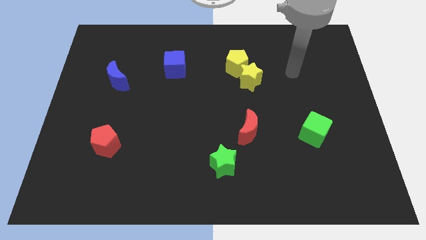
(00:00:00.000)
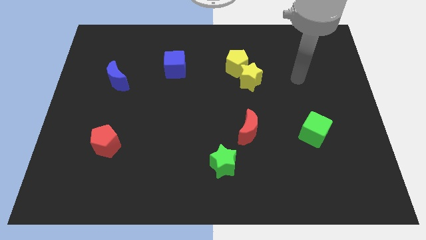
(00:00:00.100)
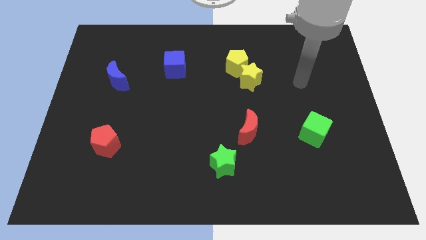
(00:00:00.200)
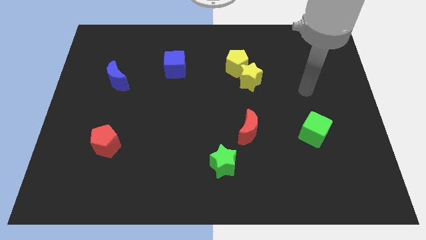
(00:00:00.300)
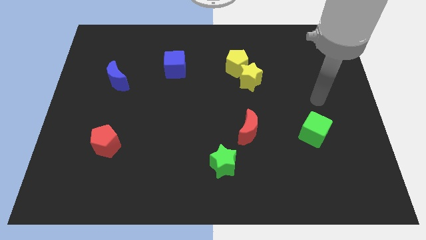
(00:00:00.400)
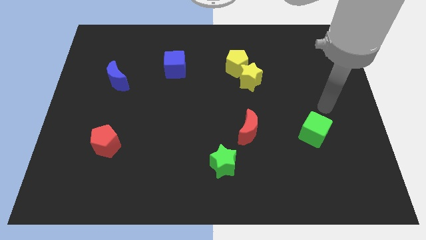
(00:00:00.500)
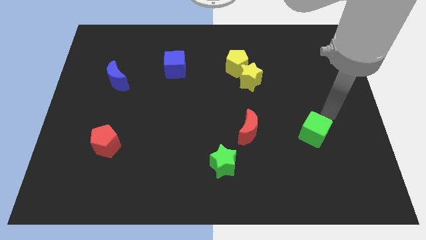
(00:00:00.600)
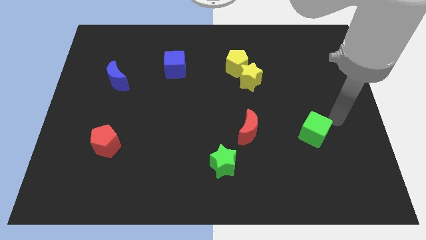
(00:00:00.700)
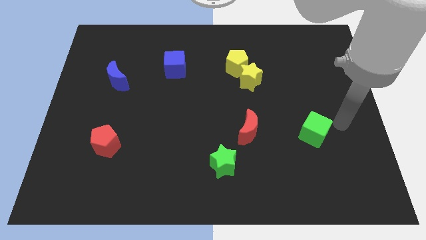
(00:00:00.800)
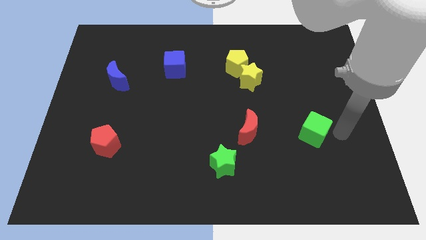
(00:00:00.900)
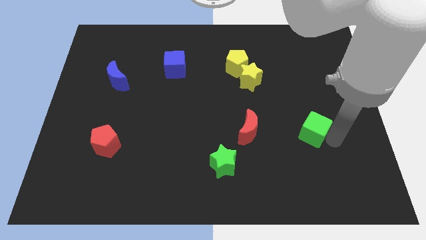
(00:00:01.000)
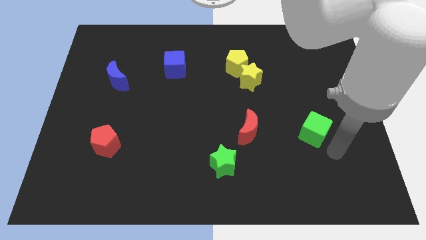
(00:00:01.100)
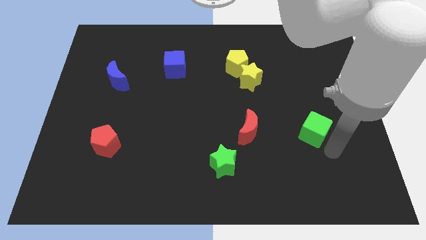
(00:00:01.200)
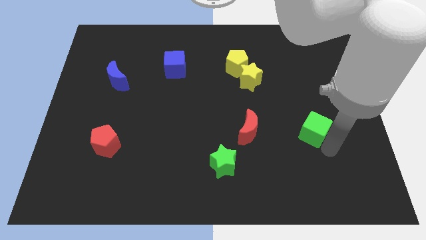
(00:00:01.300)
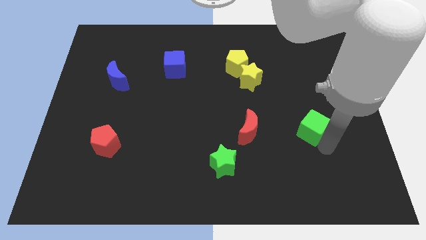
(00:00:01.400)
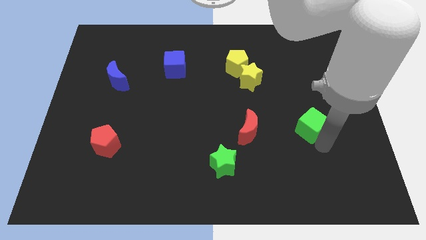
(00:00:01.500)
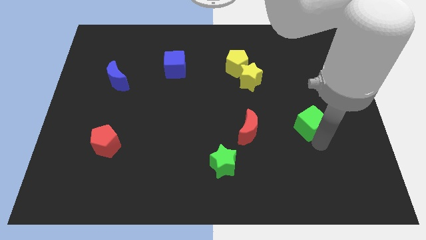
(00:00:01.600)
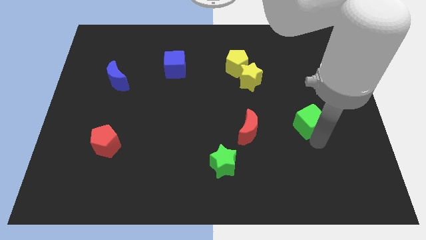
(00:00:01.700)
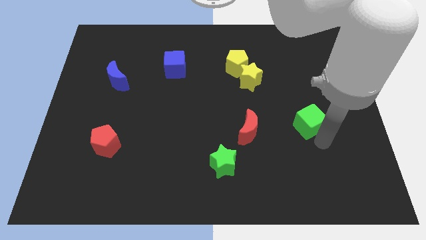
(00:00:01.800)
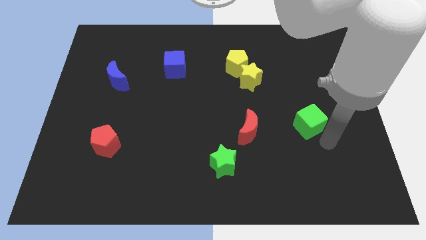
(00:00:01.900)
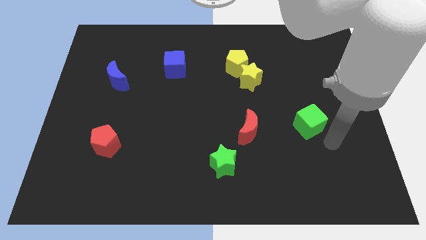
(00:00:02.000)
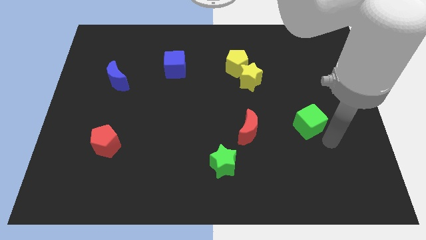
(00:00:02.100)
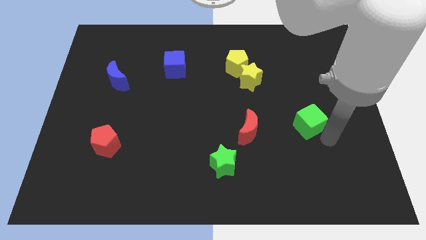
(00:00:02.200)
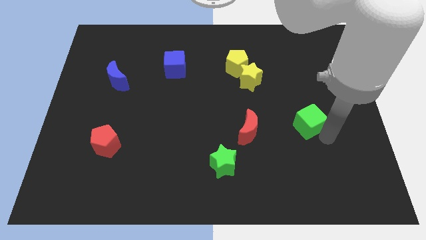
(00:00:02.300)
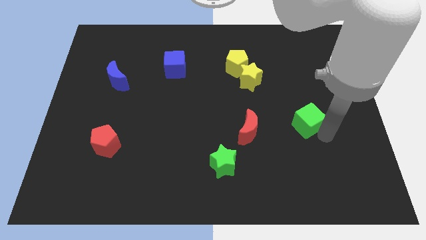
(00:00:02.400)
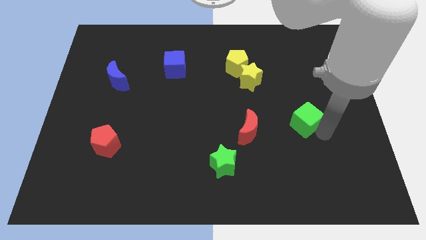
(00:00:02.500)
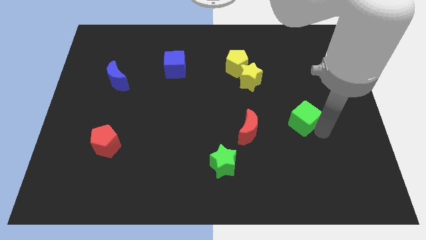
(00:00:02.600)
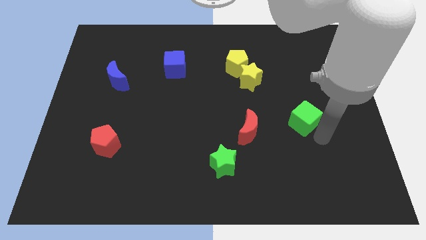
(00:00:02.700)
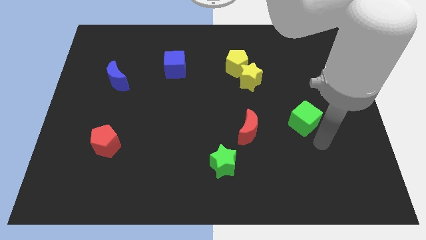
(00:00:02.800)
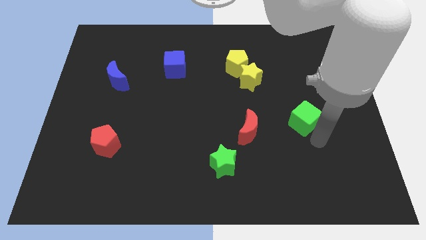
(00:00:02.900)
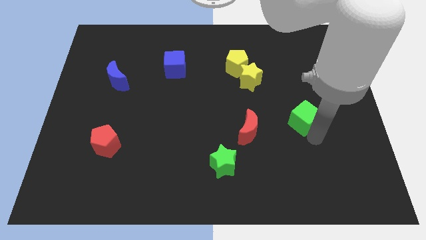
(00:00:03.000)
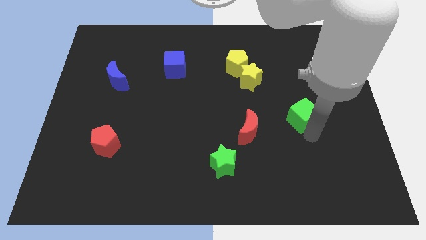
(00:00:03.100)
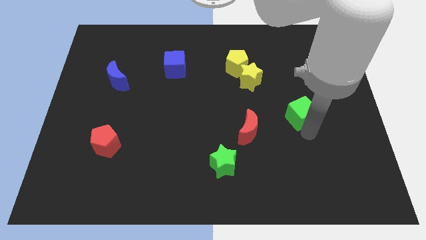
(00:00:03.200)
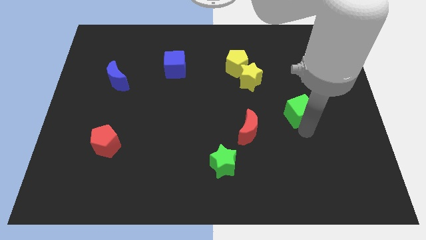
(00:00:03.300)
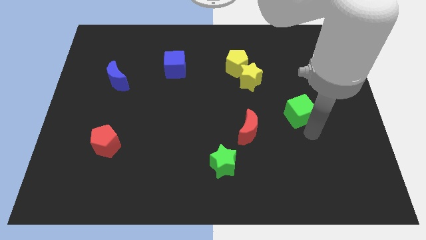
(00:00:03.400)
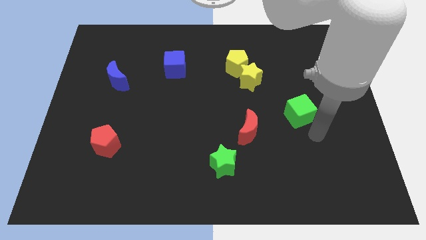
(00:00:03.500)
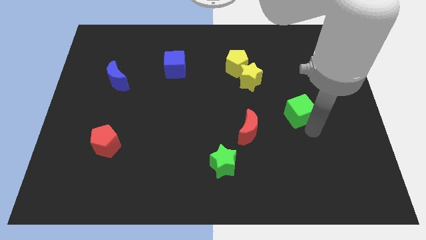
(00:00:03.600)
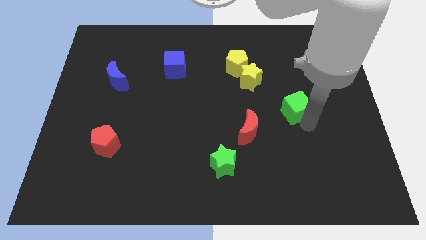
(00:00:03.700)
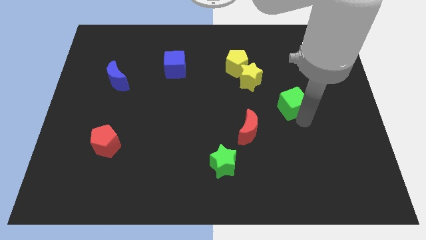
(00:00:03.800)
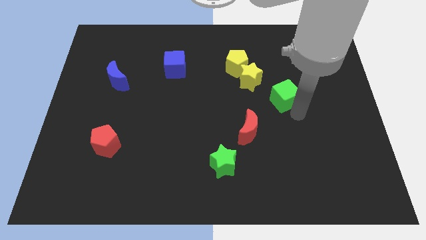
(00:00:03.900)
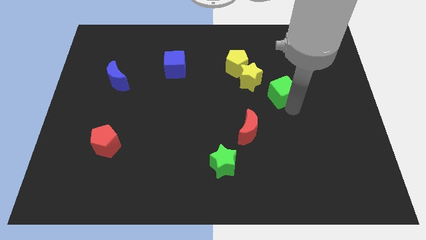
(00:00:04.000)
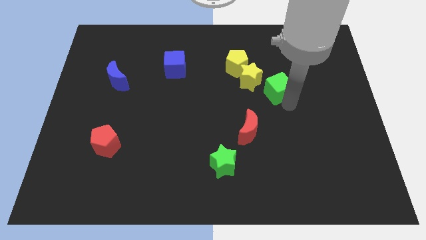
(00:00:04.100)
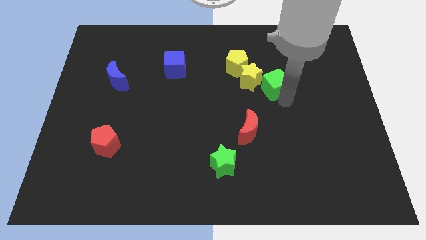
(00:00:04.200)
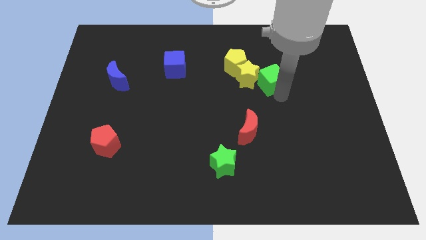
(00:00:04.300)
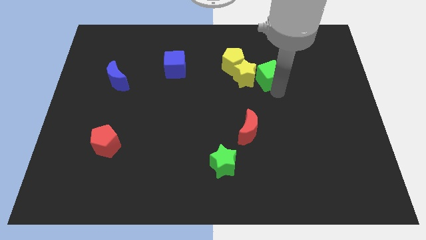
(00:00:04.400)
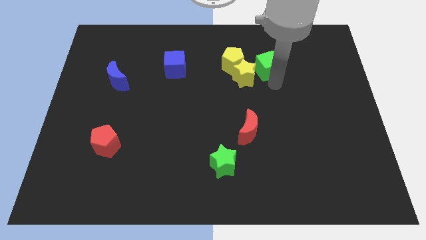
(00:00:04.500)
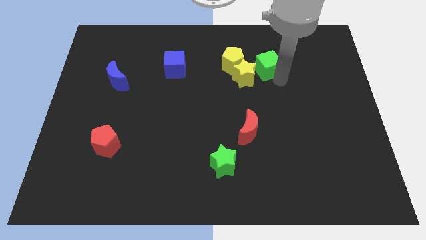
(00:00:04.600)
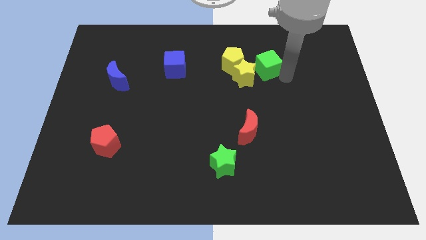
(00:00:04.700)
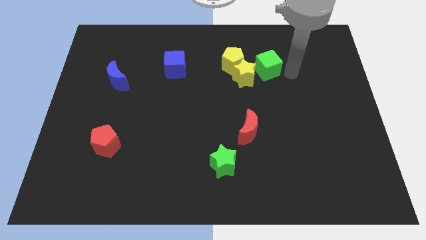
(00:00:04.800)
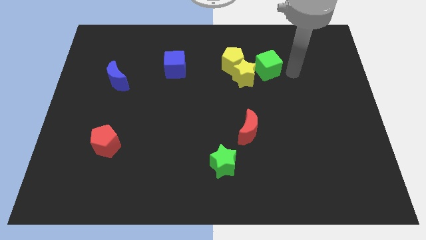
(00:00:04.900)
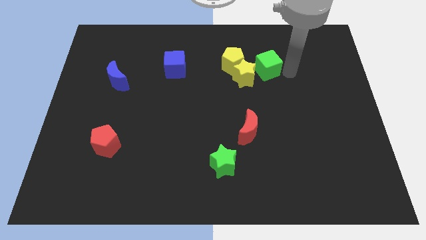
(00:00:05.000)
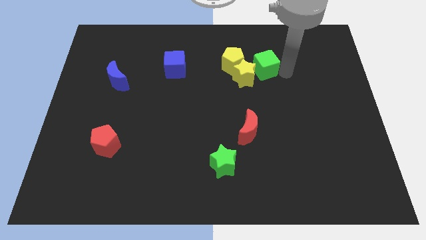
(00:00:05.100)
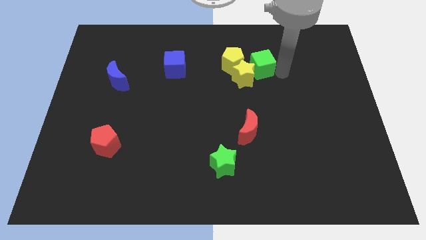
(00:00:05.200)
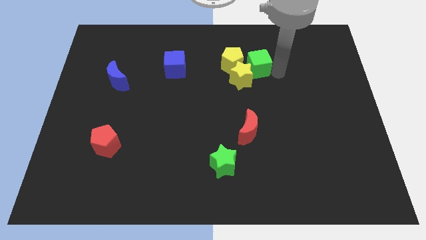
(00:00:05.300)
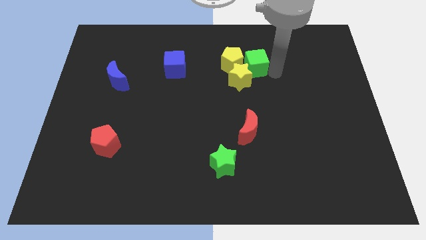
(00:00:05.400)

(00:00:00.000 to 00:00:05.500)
push the green cube towards the yellow pentagon

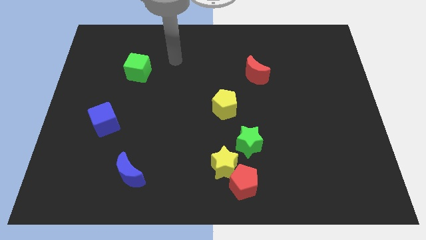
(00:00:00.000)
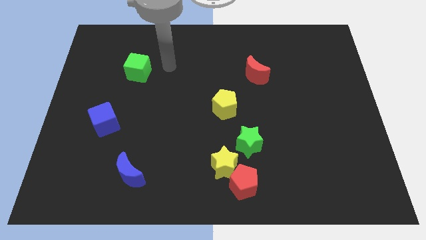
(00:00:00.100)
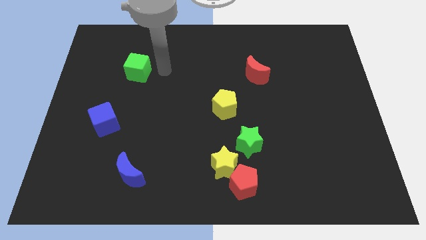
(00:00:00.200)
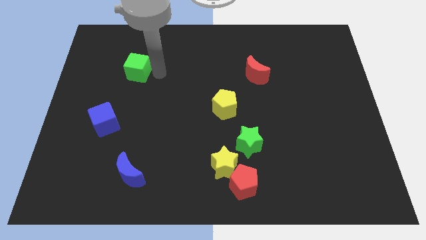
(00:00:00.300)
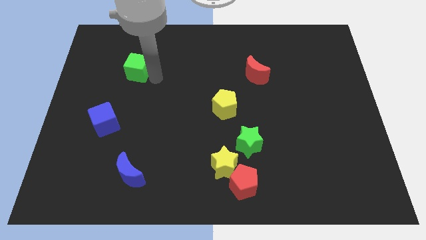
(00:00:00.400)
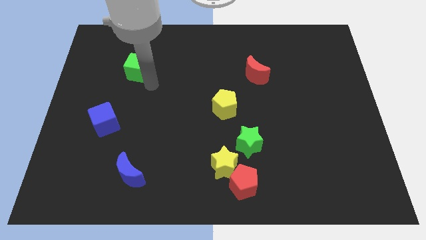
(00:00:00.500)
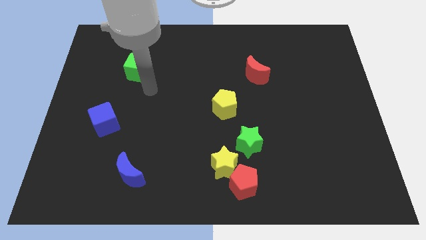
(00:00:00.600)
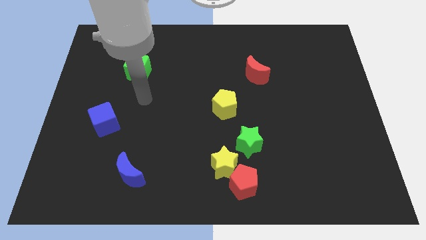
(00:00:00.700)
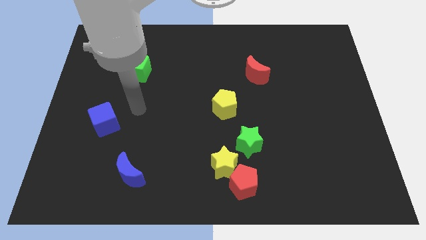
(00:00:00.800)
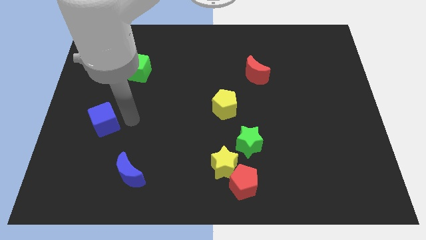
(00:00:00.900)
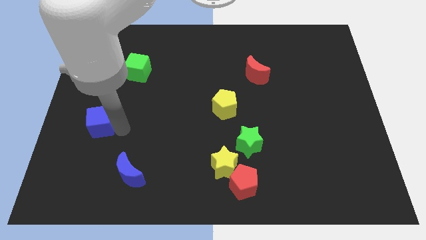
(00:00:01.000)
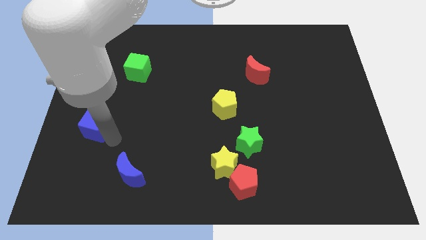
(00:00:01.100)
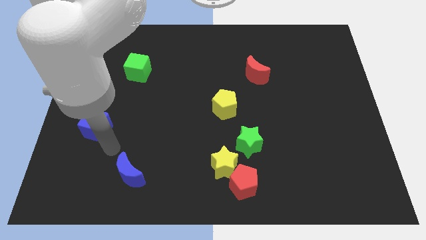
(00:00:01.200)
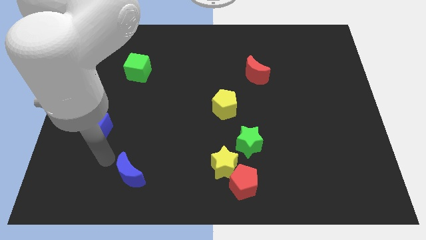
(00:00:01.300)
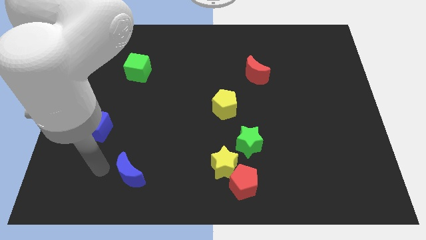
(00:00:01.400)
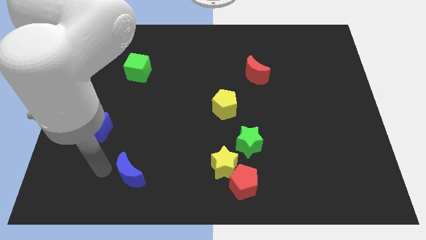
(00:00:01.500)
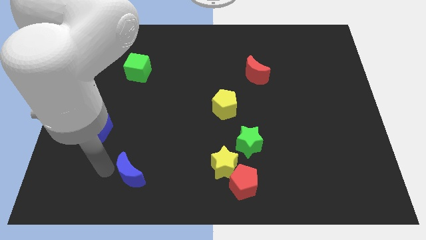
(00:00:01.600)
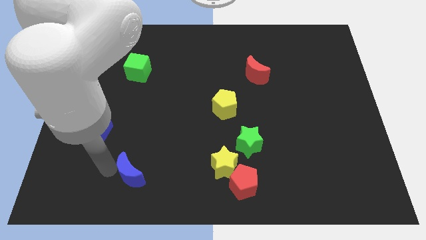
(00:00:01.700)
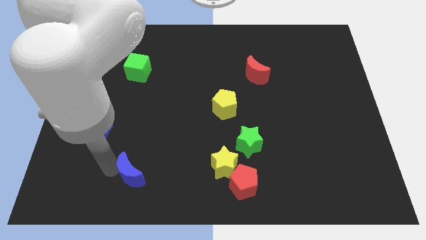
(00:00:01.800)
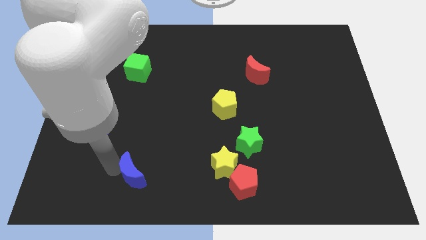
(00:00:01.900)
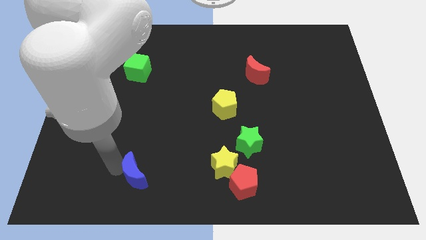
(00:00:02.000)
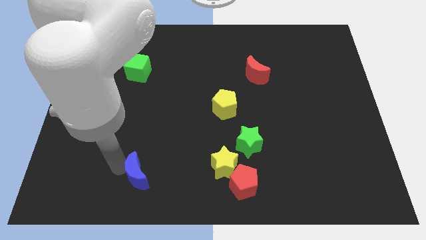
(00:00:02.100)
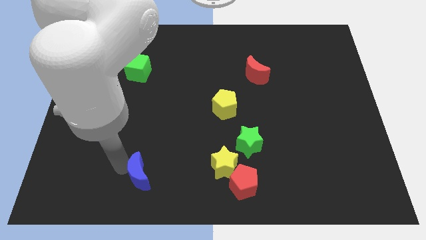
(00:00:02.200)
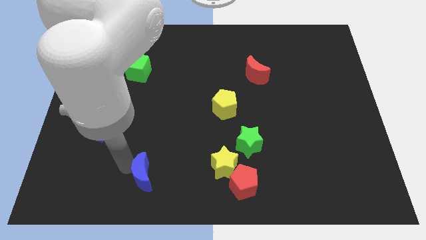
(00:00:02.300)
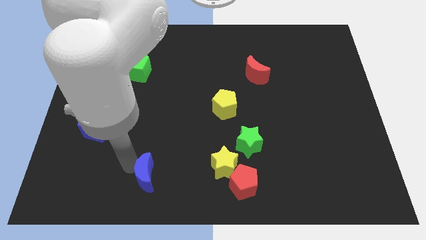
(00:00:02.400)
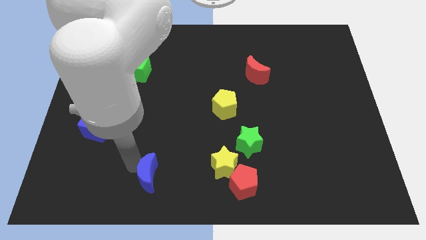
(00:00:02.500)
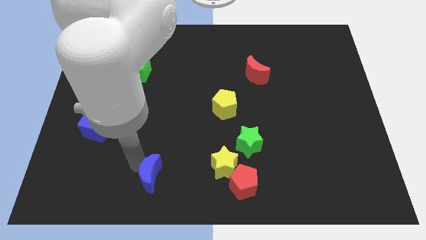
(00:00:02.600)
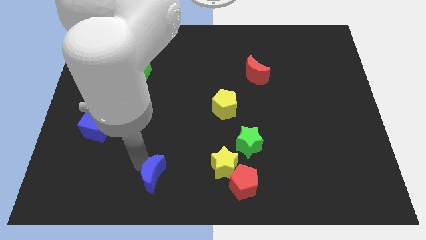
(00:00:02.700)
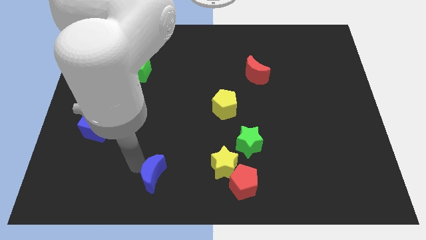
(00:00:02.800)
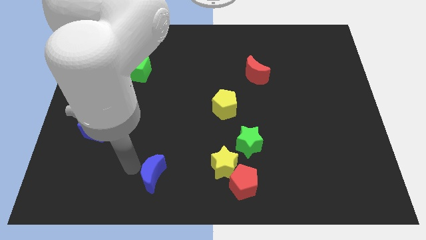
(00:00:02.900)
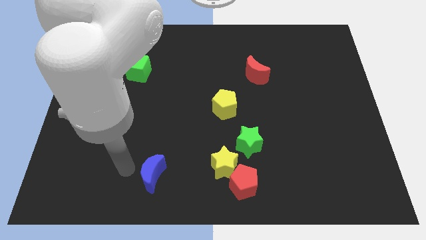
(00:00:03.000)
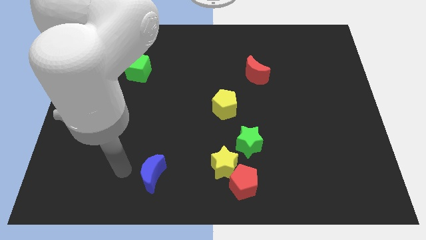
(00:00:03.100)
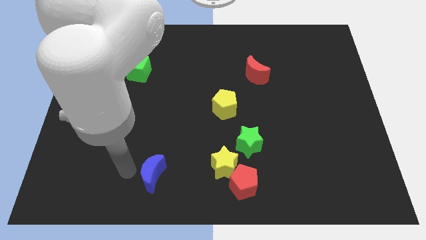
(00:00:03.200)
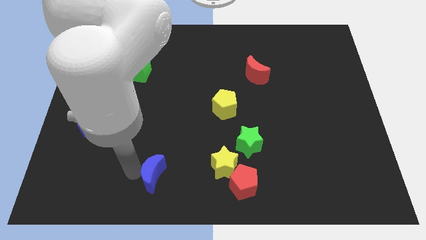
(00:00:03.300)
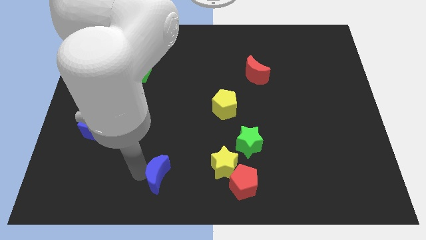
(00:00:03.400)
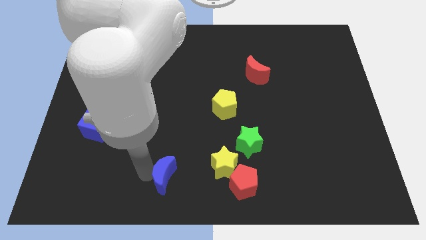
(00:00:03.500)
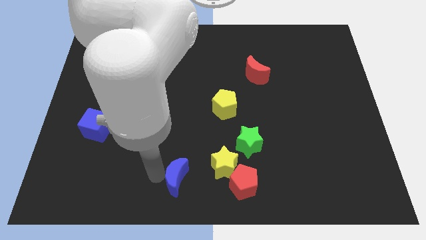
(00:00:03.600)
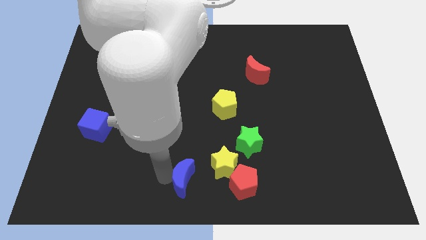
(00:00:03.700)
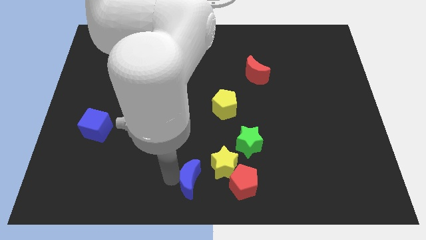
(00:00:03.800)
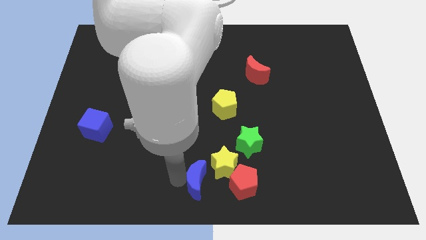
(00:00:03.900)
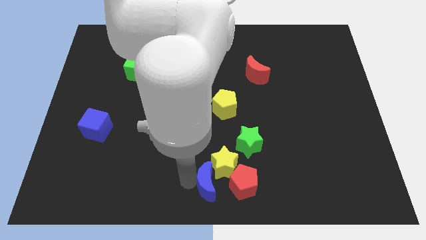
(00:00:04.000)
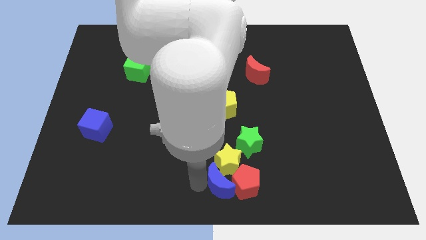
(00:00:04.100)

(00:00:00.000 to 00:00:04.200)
move the blue moon towards the red pentagon
